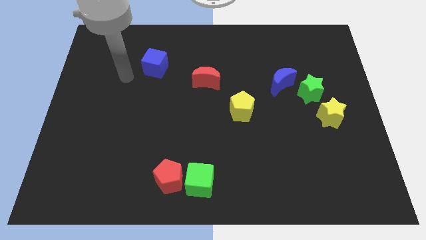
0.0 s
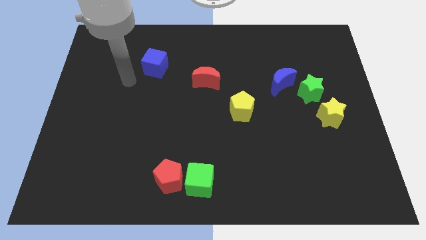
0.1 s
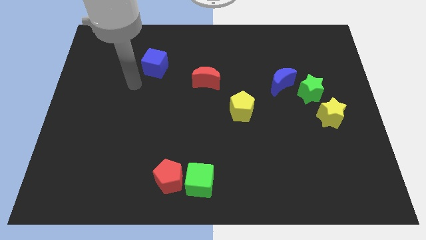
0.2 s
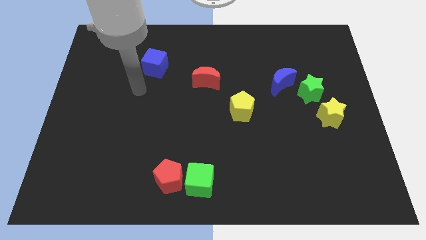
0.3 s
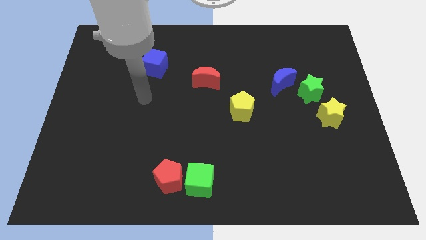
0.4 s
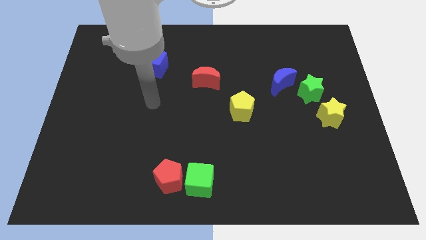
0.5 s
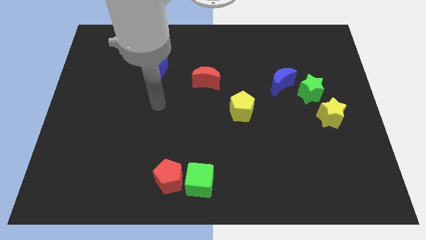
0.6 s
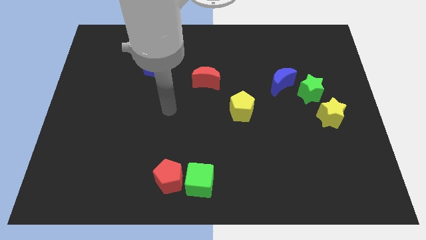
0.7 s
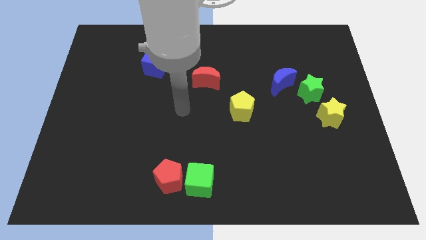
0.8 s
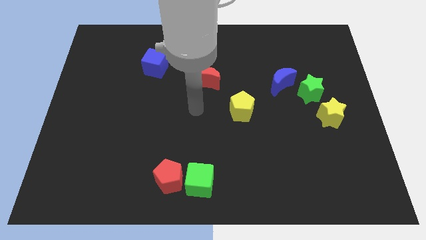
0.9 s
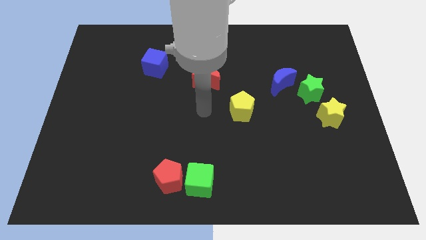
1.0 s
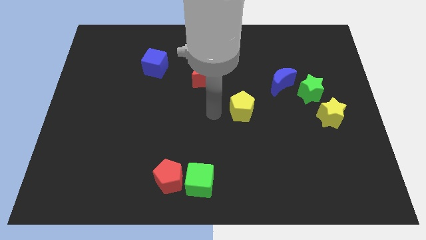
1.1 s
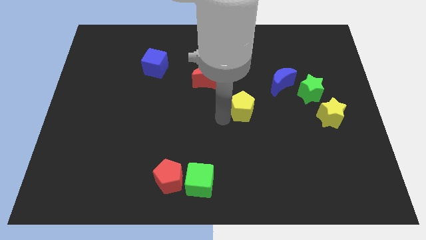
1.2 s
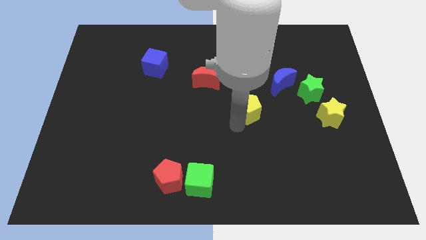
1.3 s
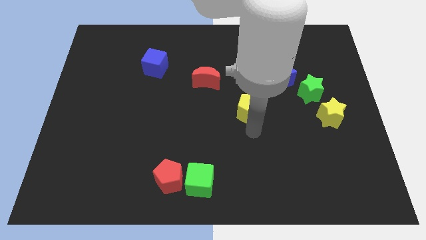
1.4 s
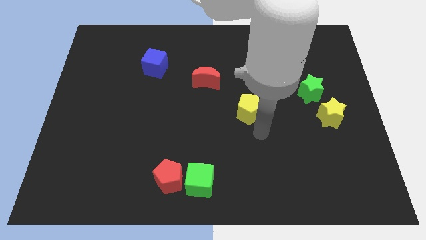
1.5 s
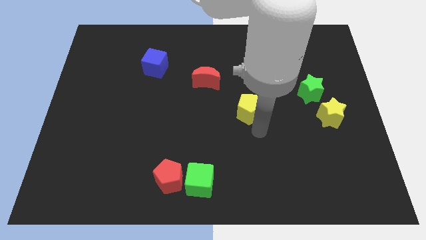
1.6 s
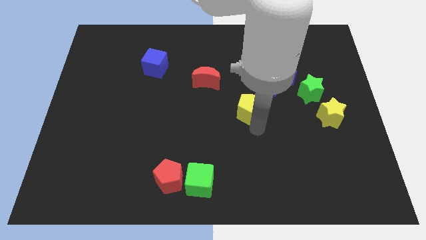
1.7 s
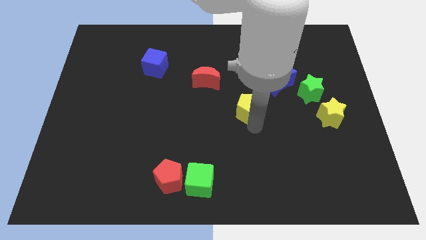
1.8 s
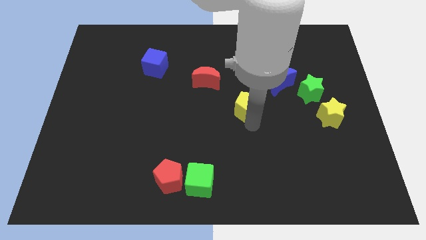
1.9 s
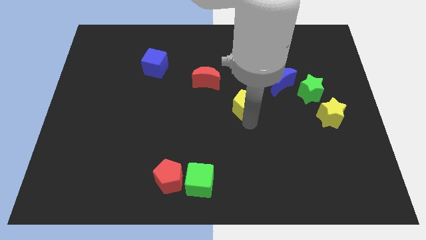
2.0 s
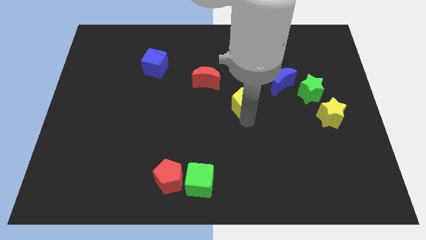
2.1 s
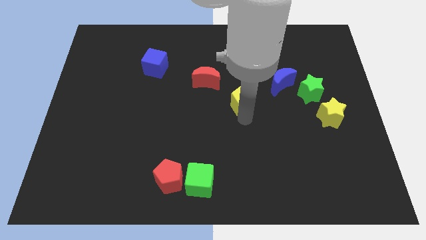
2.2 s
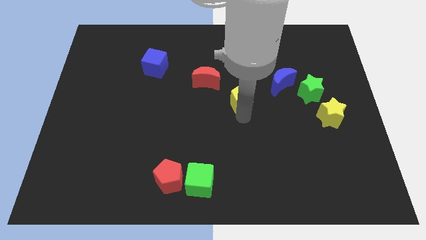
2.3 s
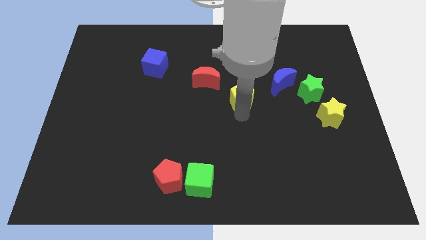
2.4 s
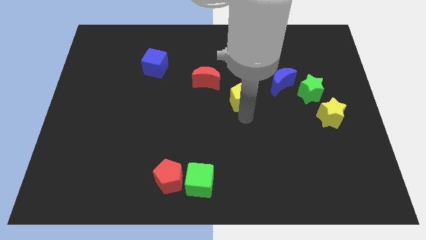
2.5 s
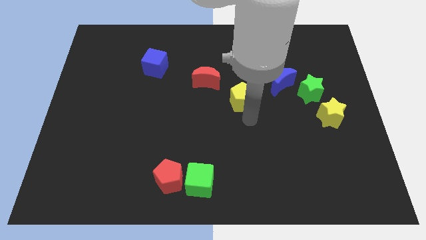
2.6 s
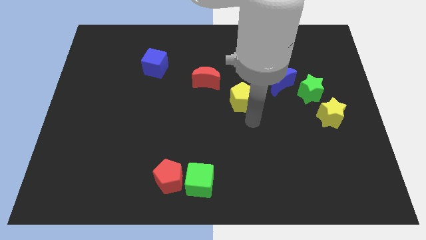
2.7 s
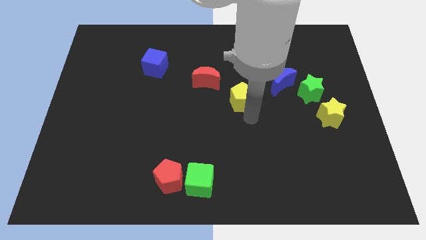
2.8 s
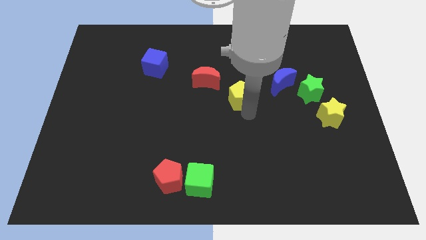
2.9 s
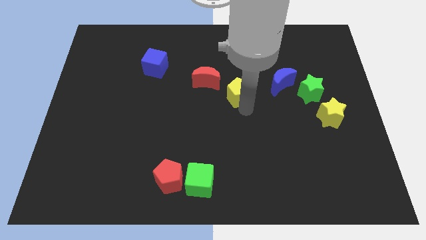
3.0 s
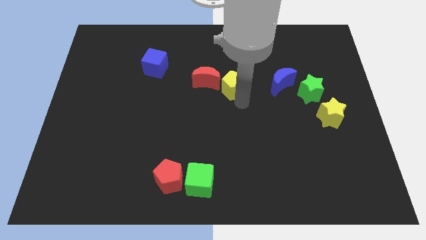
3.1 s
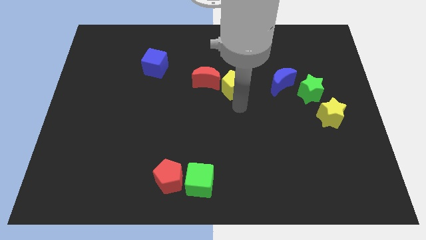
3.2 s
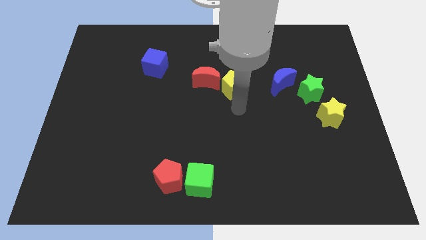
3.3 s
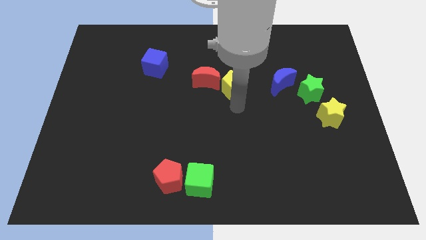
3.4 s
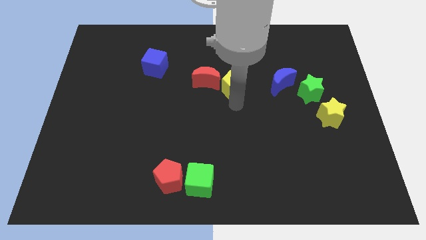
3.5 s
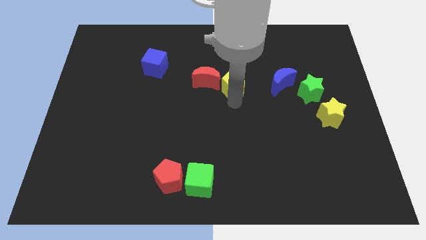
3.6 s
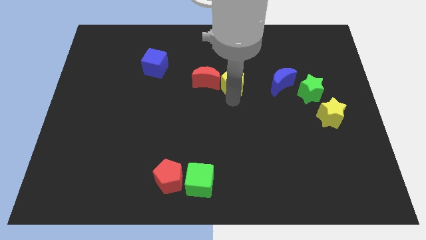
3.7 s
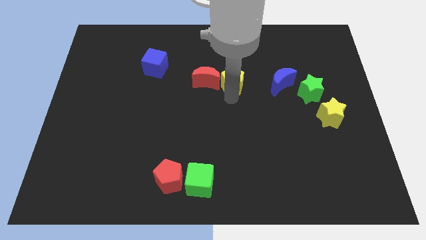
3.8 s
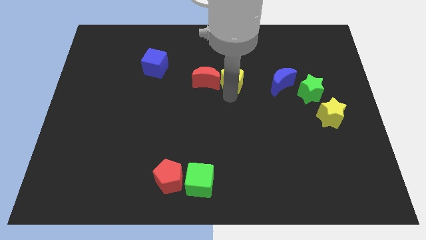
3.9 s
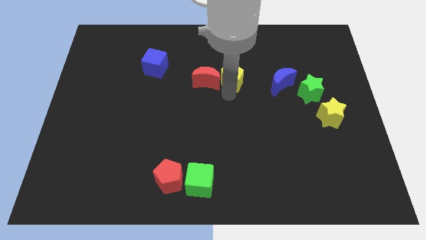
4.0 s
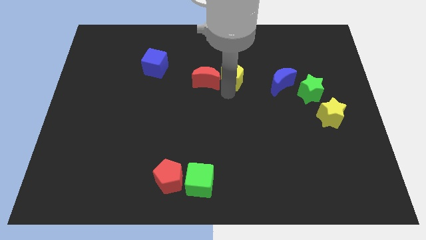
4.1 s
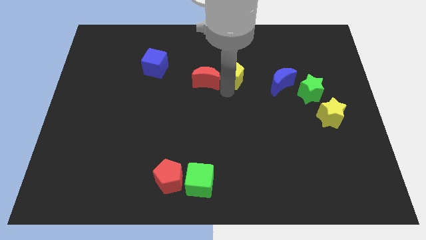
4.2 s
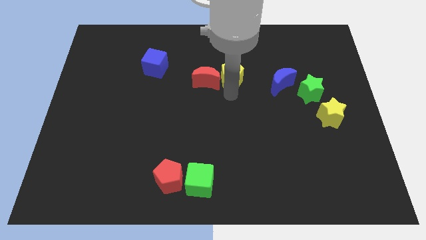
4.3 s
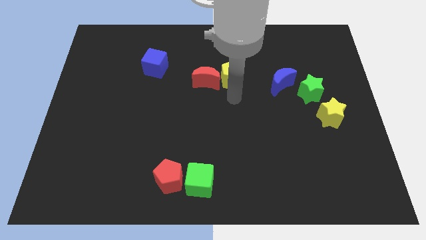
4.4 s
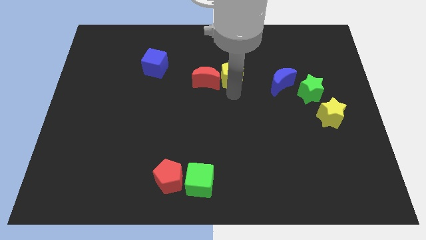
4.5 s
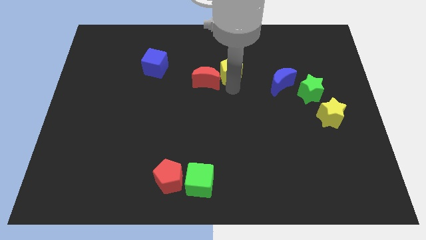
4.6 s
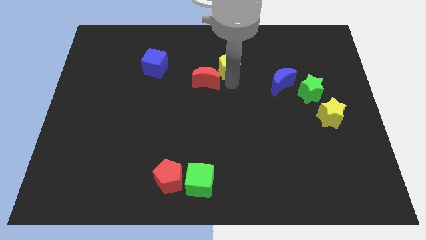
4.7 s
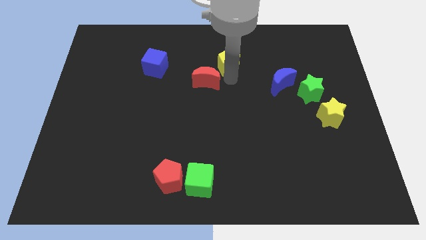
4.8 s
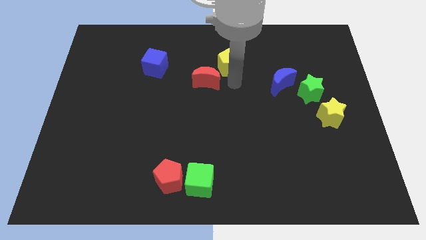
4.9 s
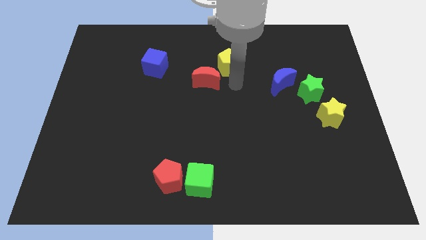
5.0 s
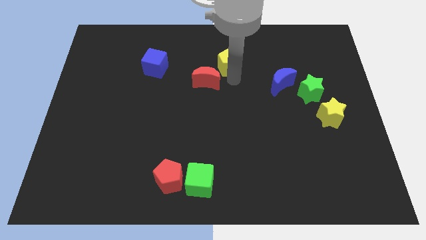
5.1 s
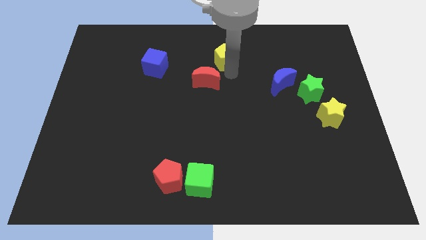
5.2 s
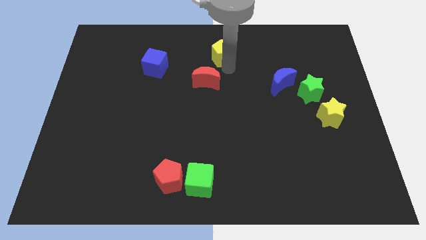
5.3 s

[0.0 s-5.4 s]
slide the yellow pentagon to the top
